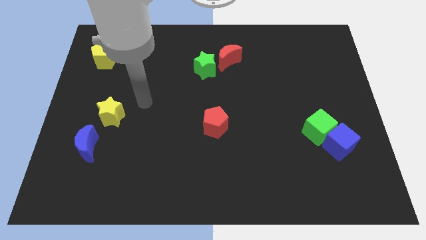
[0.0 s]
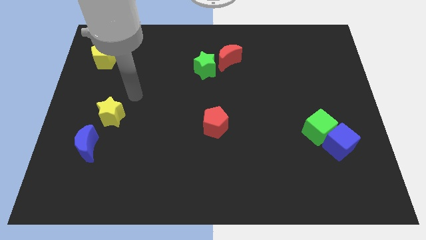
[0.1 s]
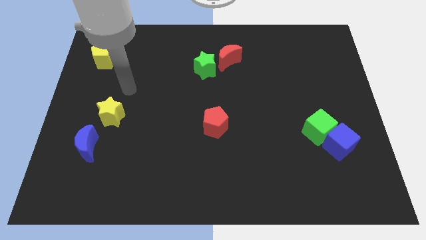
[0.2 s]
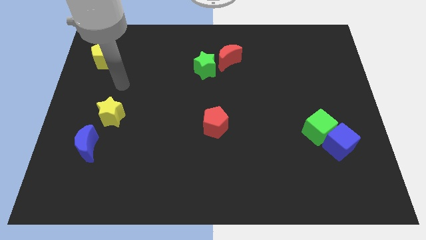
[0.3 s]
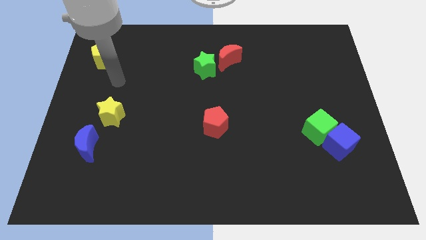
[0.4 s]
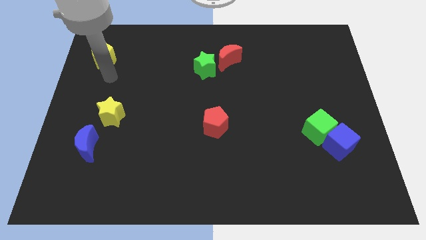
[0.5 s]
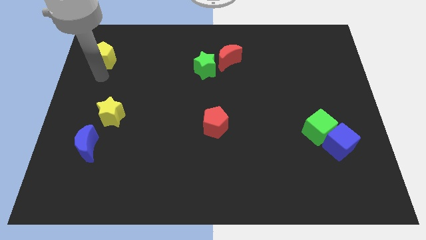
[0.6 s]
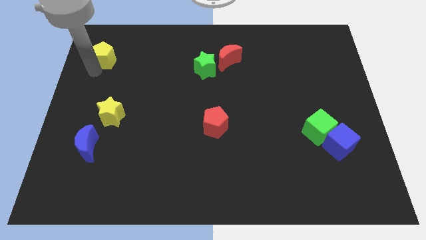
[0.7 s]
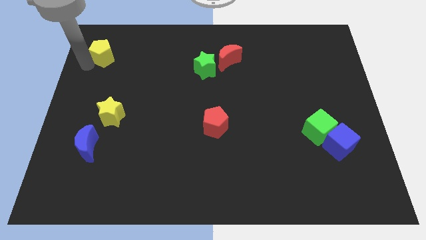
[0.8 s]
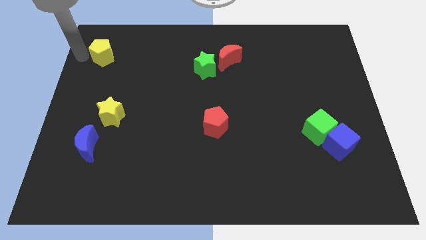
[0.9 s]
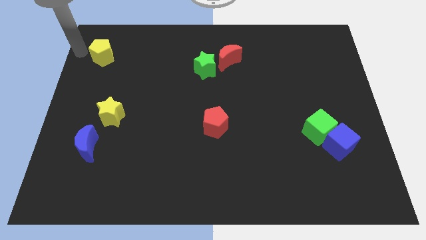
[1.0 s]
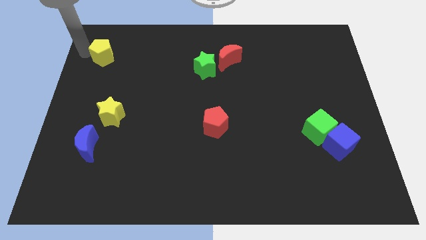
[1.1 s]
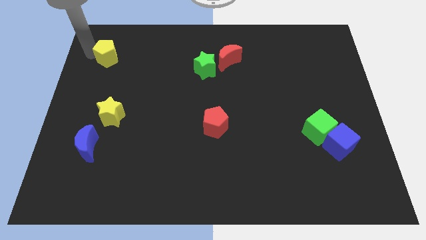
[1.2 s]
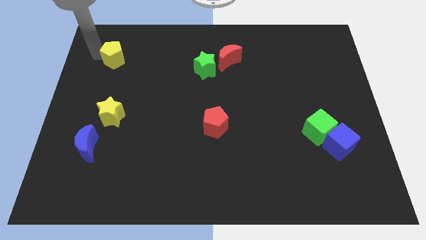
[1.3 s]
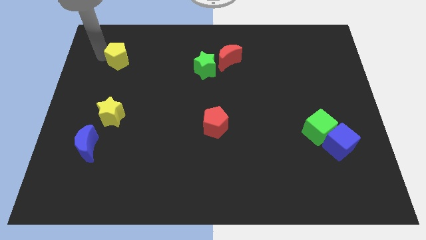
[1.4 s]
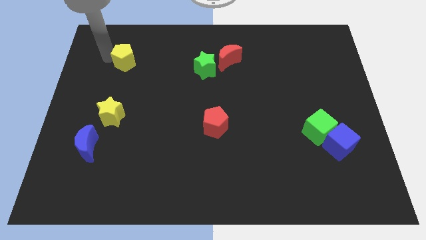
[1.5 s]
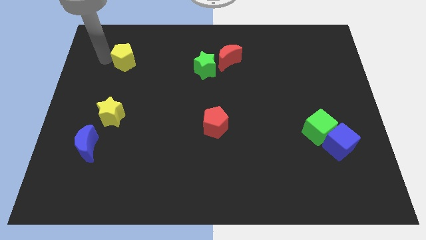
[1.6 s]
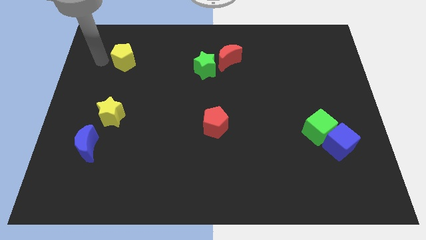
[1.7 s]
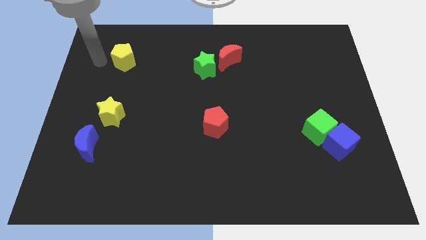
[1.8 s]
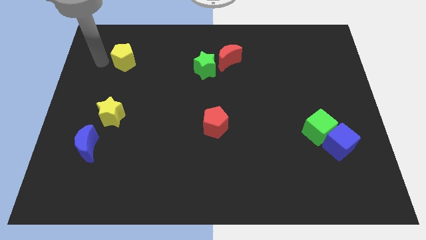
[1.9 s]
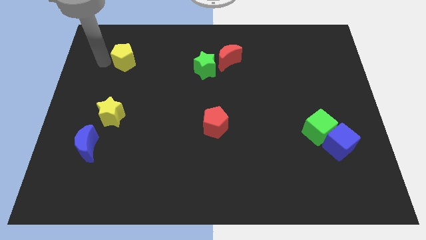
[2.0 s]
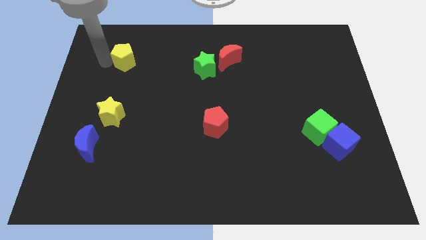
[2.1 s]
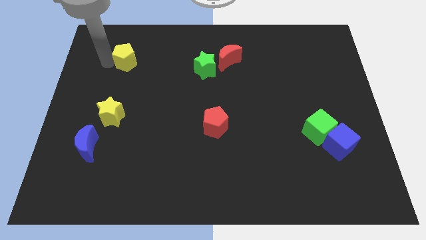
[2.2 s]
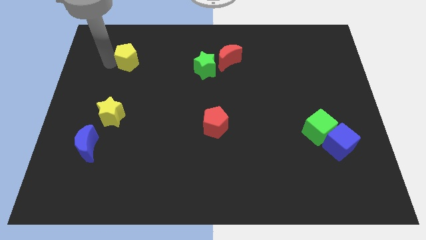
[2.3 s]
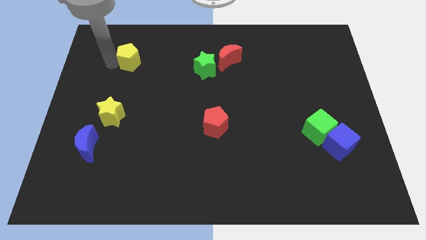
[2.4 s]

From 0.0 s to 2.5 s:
push the yellow pentagon a bit right

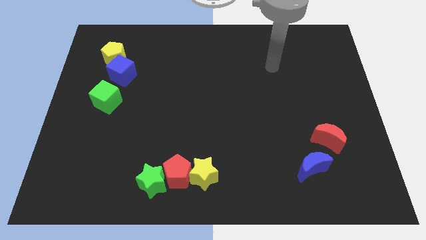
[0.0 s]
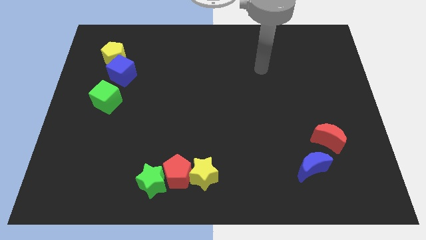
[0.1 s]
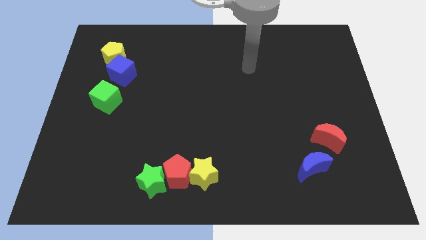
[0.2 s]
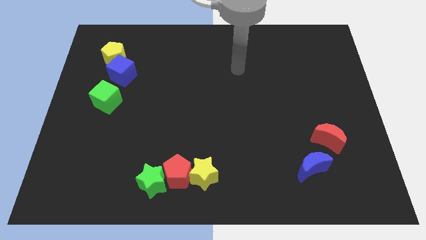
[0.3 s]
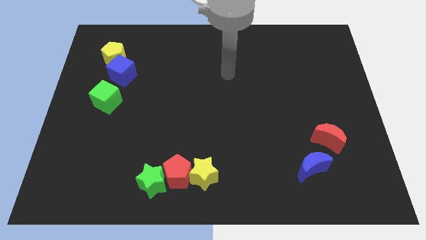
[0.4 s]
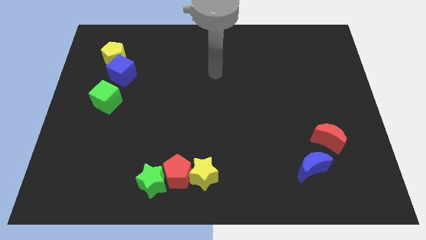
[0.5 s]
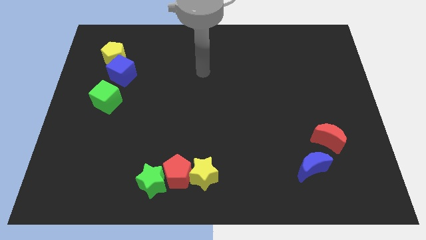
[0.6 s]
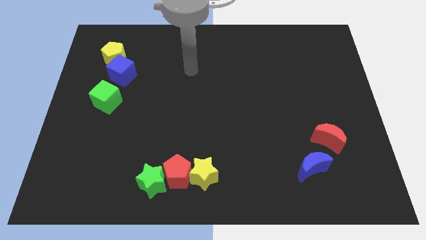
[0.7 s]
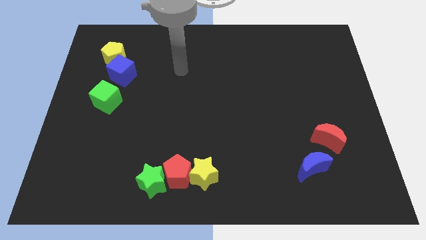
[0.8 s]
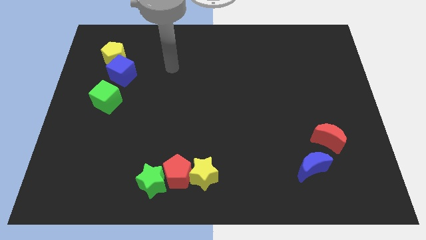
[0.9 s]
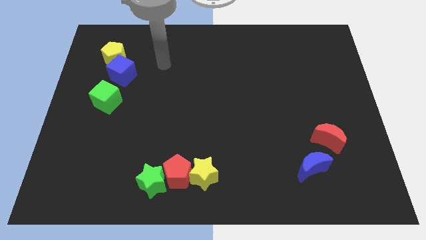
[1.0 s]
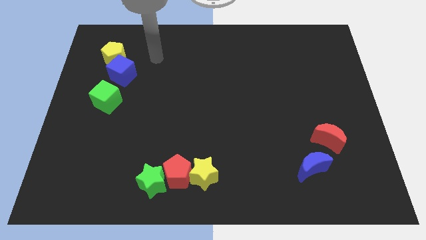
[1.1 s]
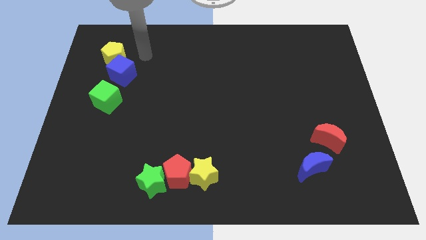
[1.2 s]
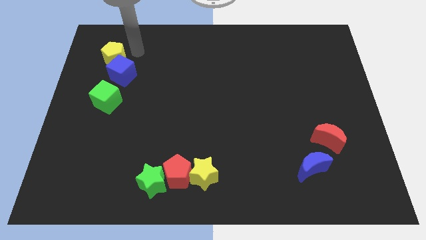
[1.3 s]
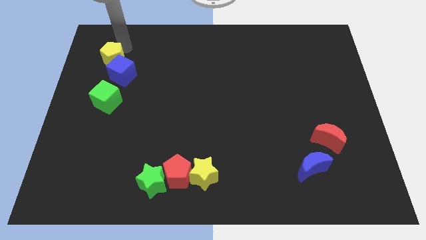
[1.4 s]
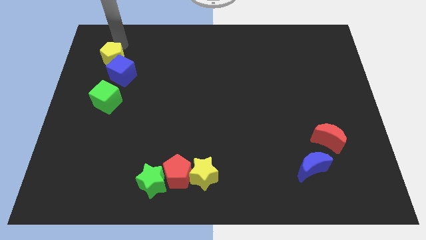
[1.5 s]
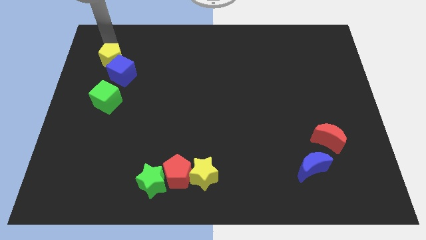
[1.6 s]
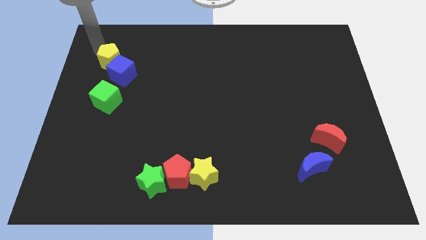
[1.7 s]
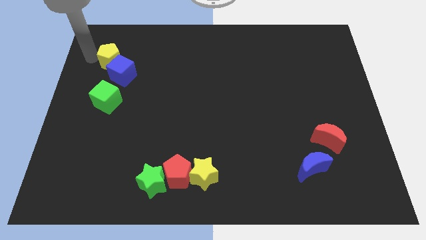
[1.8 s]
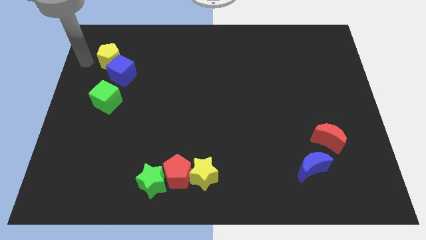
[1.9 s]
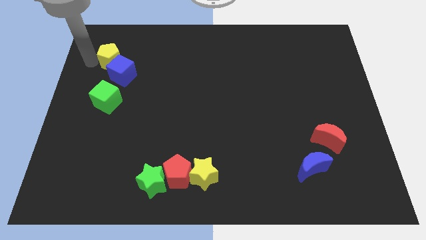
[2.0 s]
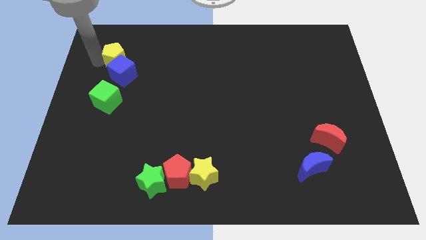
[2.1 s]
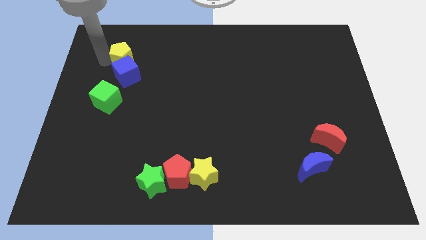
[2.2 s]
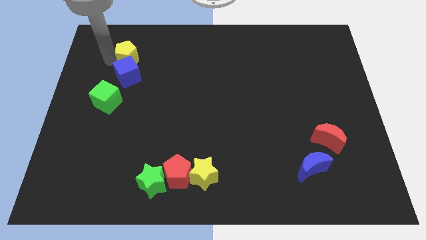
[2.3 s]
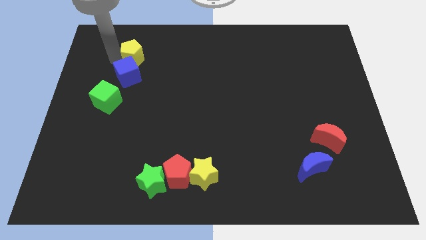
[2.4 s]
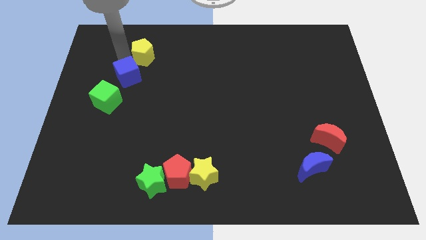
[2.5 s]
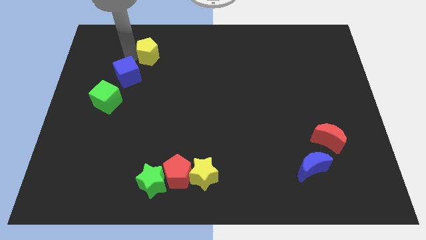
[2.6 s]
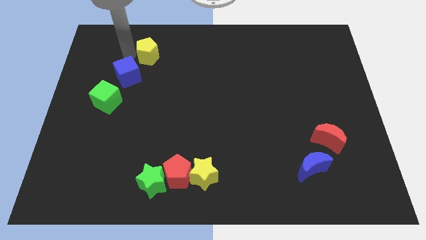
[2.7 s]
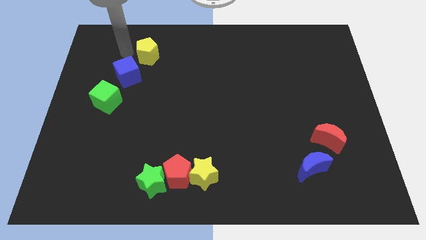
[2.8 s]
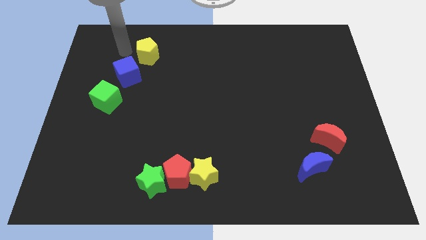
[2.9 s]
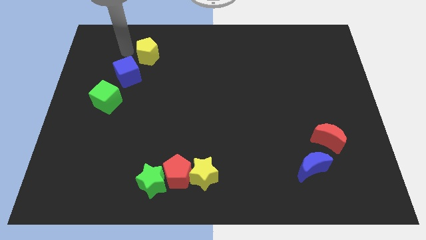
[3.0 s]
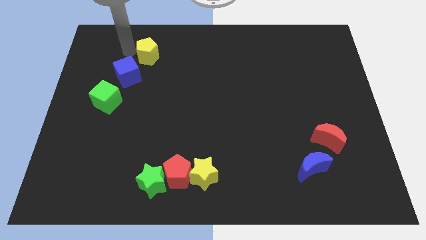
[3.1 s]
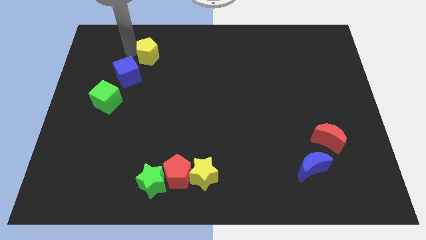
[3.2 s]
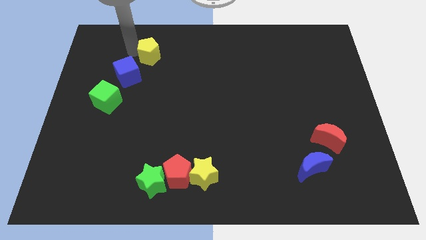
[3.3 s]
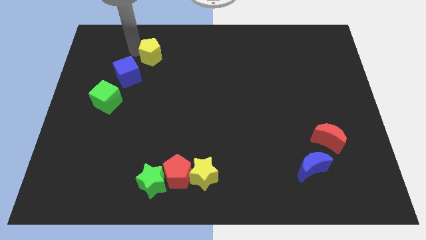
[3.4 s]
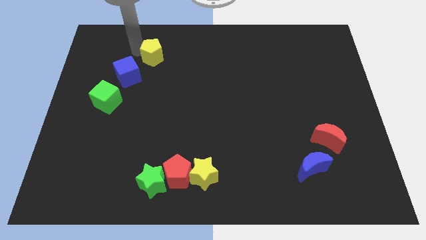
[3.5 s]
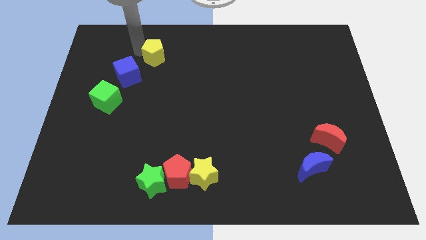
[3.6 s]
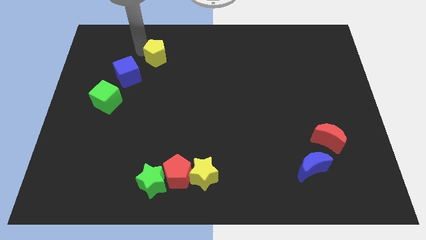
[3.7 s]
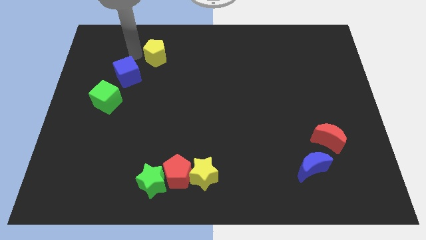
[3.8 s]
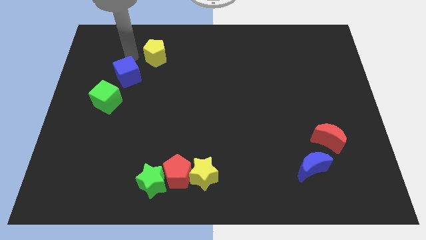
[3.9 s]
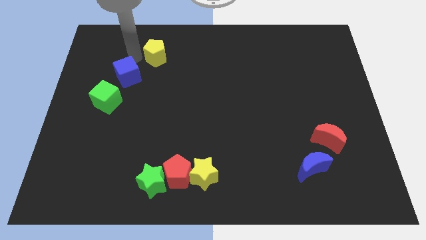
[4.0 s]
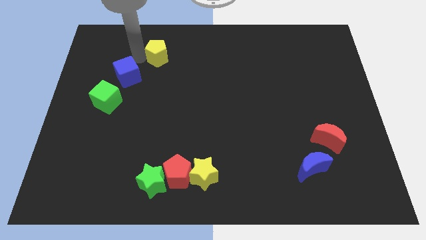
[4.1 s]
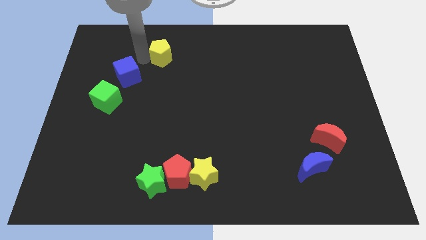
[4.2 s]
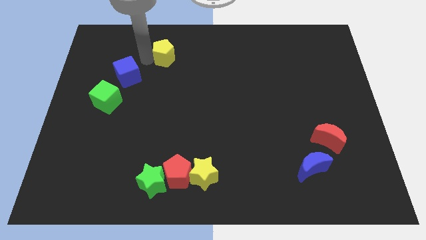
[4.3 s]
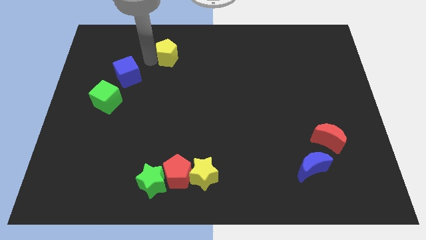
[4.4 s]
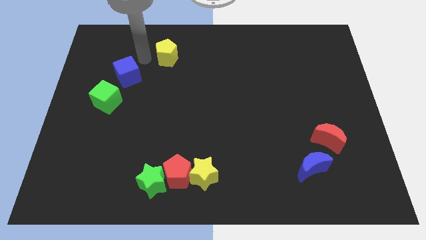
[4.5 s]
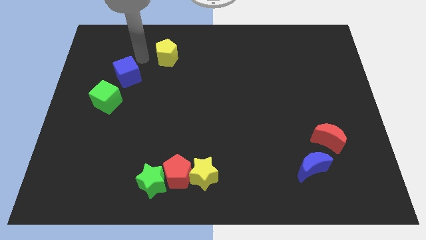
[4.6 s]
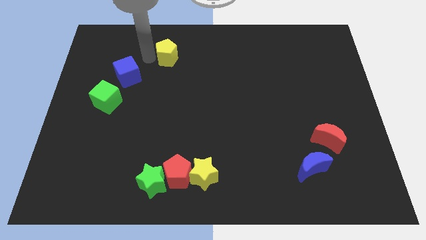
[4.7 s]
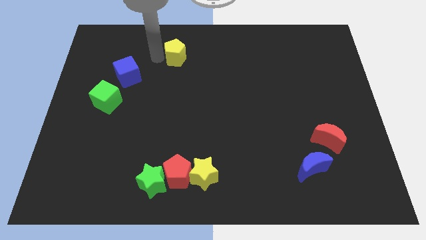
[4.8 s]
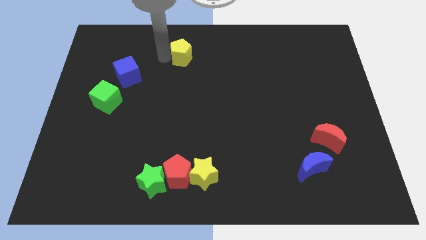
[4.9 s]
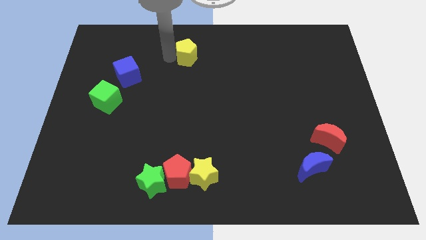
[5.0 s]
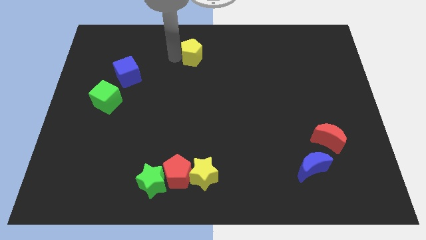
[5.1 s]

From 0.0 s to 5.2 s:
slide the yellow pentagon to the right

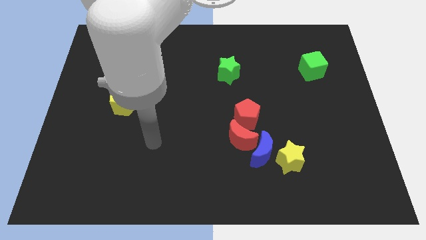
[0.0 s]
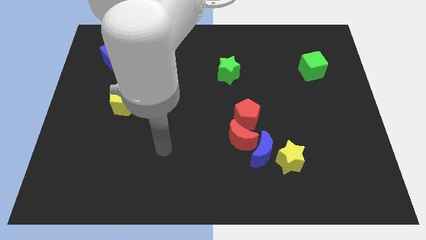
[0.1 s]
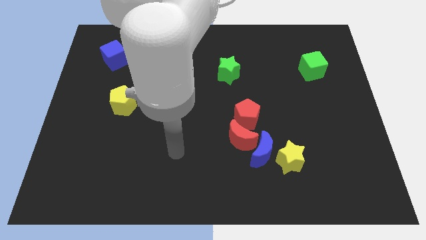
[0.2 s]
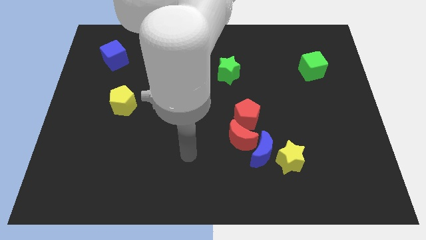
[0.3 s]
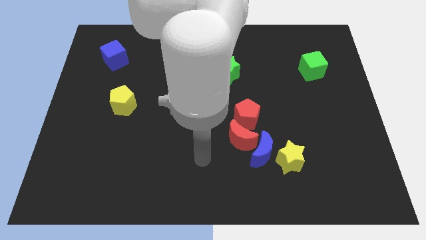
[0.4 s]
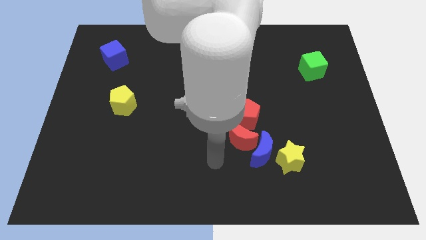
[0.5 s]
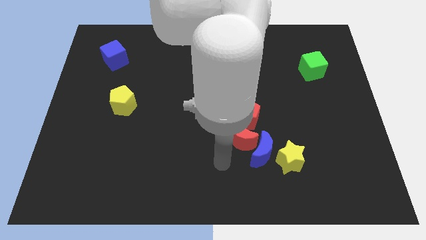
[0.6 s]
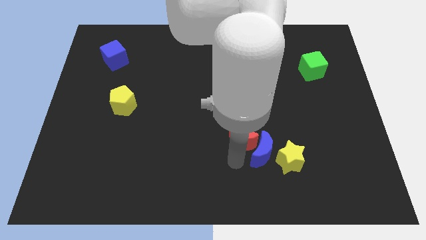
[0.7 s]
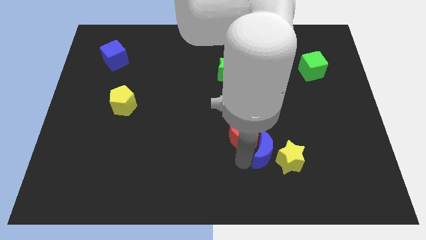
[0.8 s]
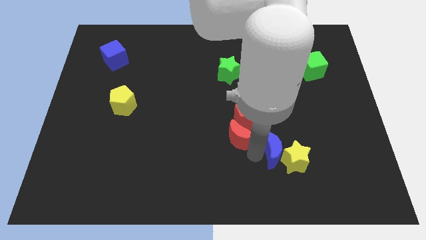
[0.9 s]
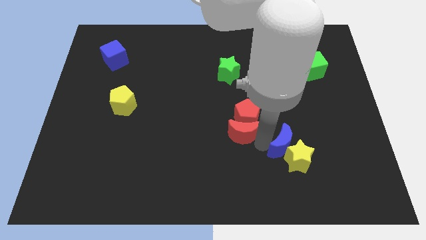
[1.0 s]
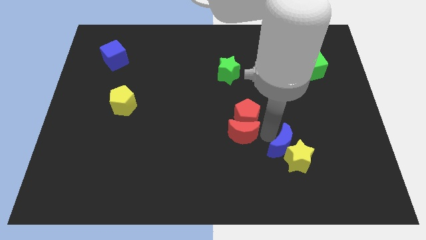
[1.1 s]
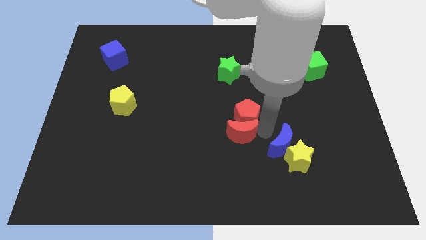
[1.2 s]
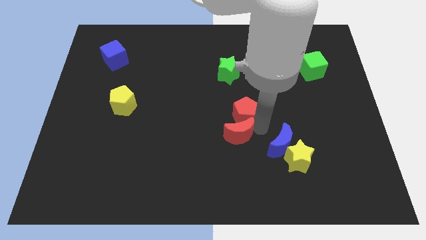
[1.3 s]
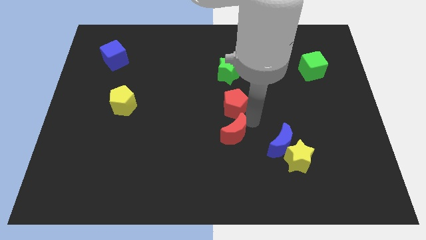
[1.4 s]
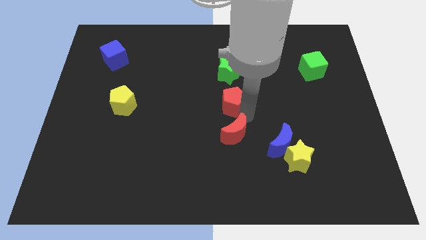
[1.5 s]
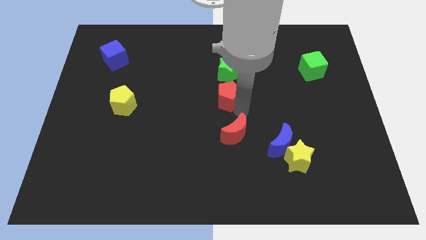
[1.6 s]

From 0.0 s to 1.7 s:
move the red pentagon a little bit upwards and to the left
